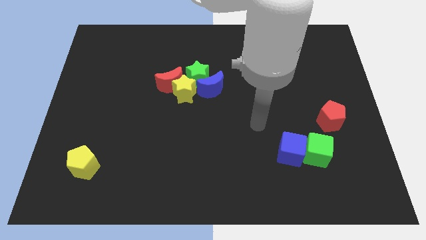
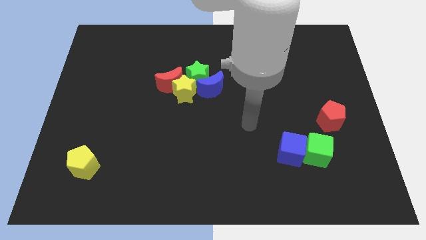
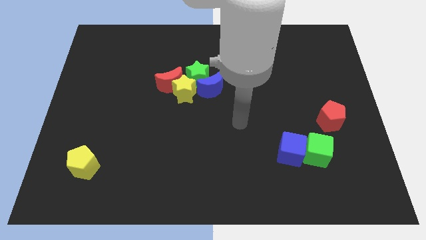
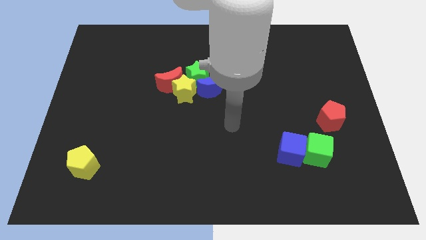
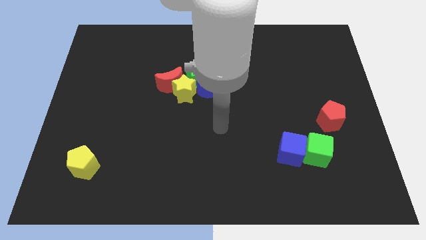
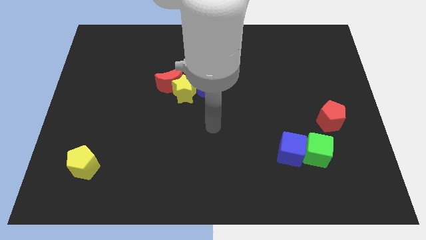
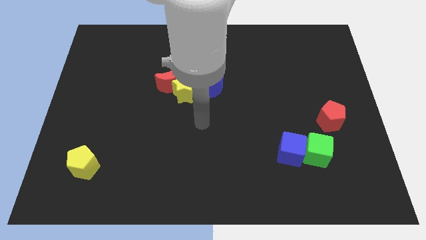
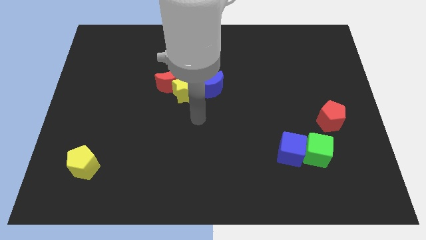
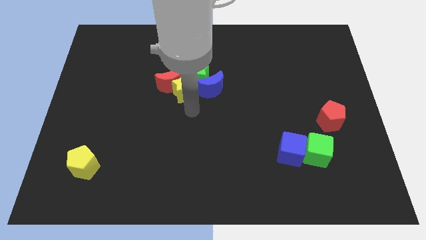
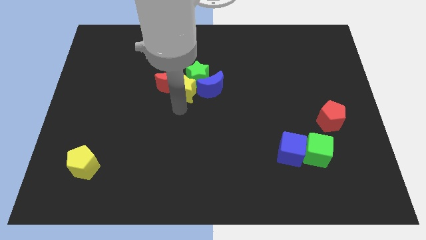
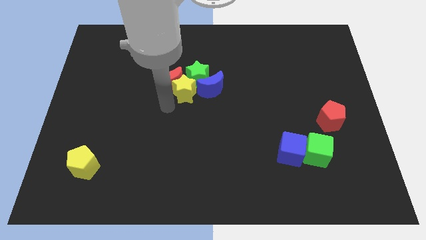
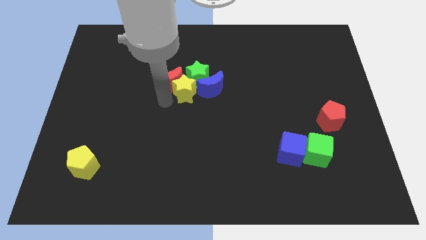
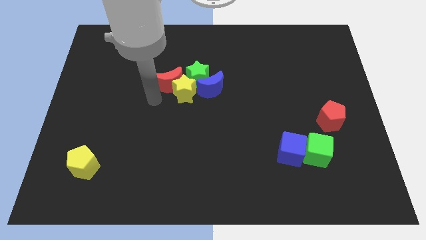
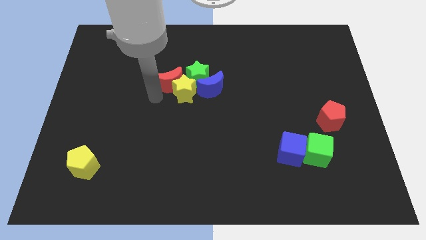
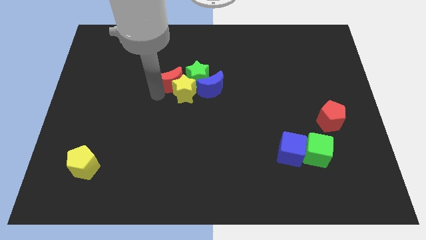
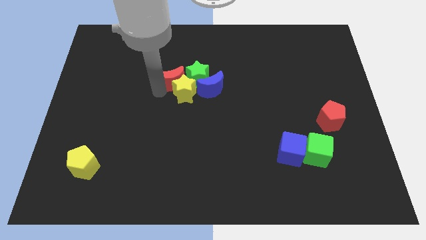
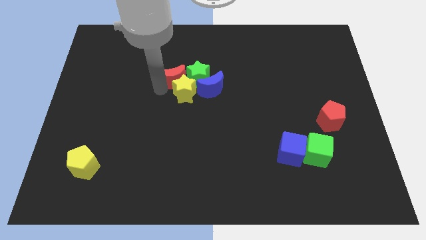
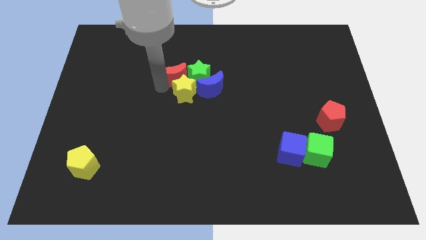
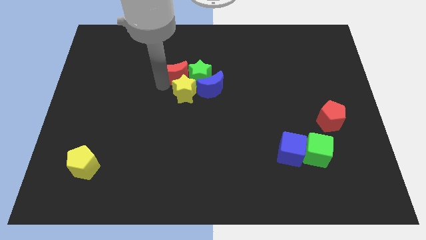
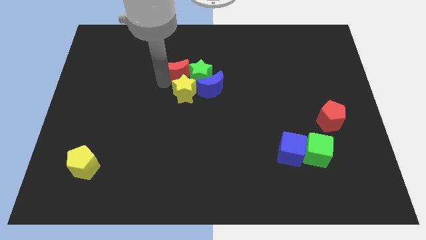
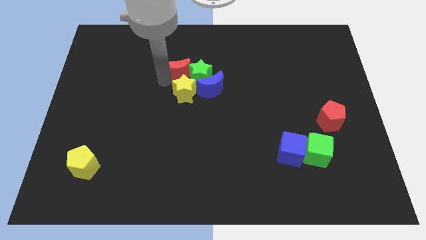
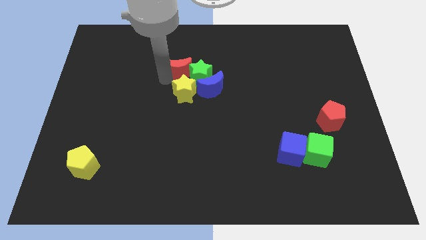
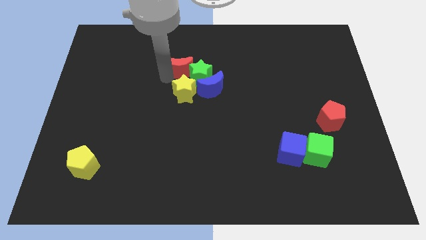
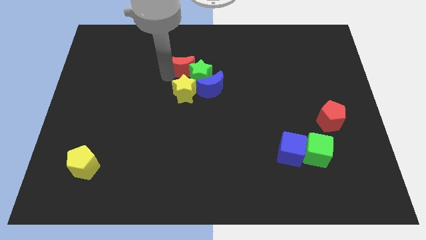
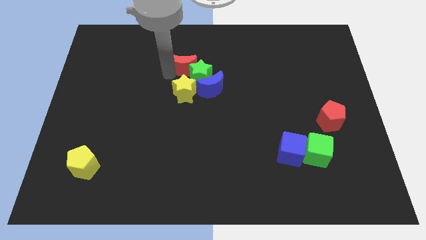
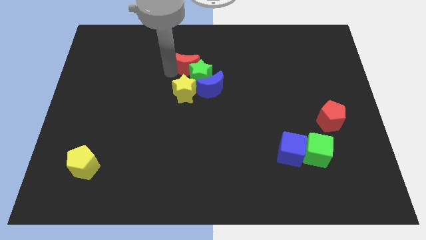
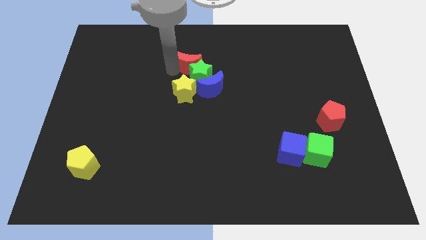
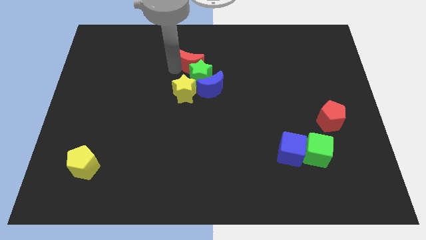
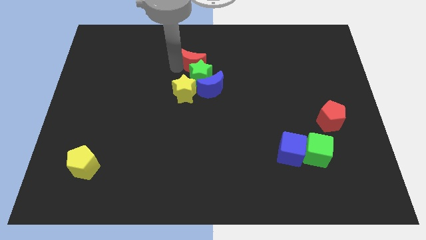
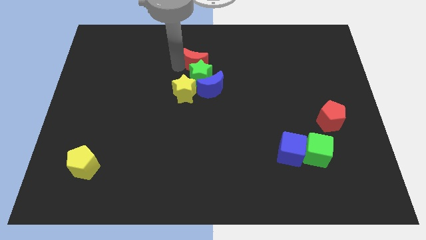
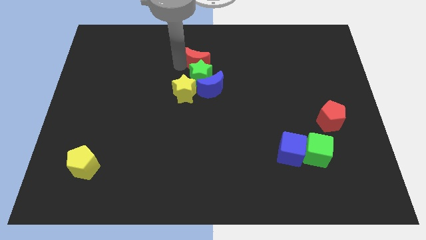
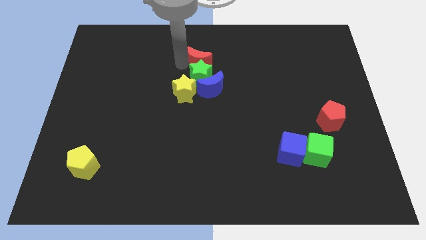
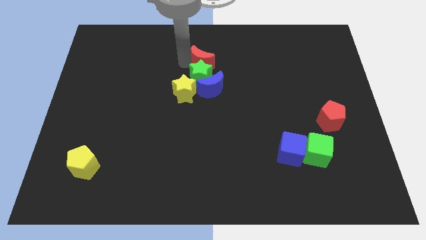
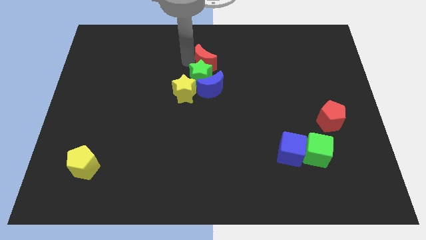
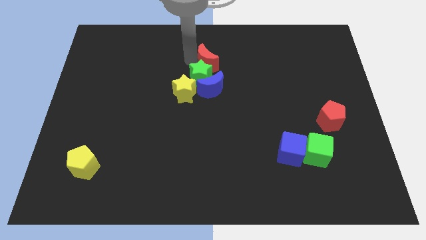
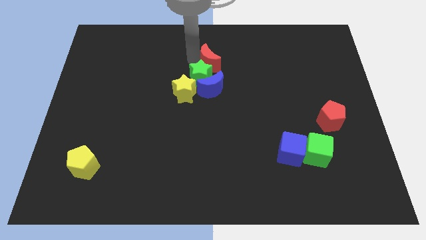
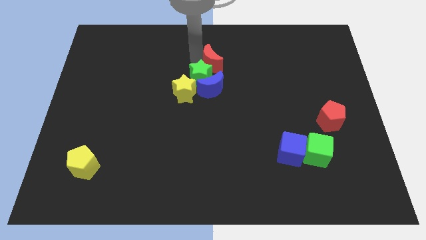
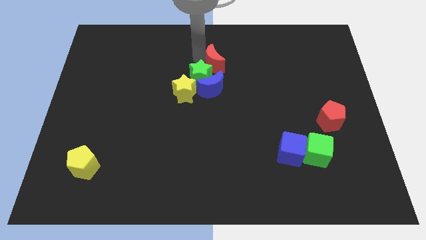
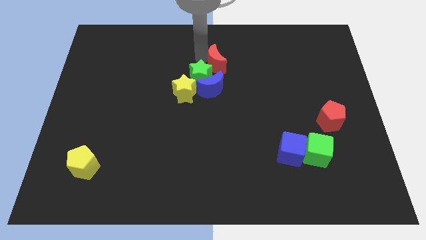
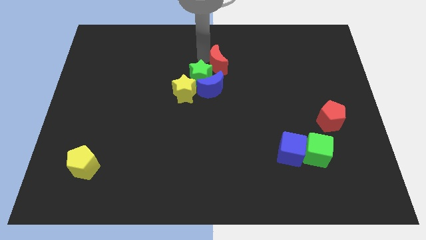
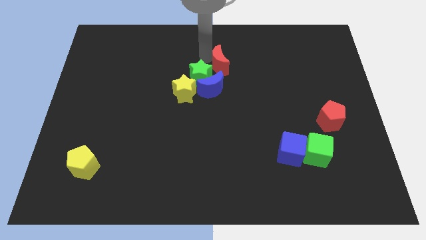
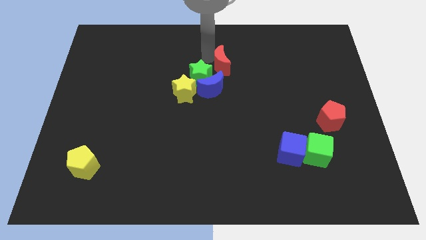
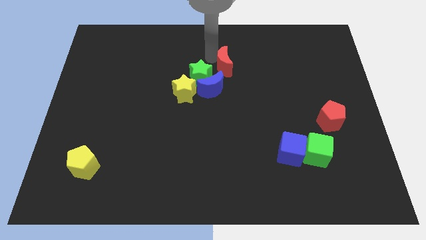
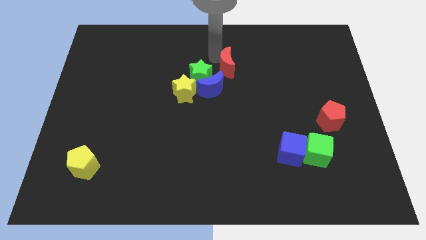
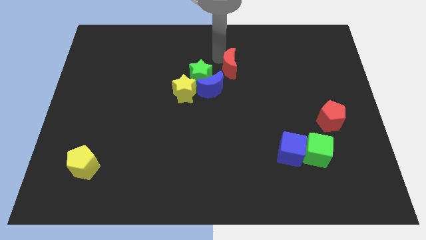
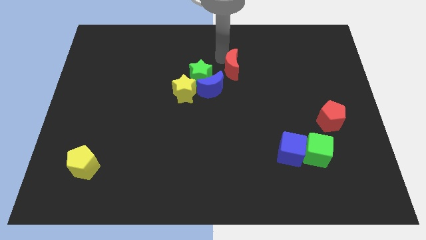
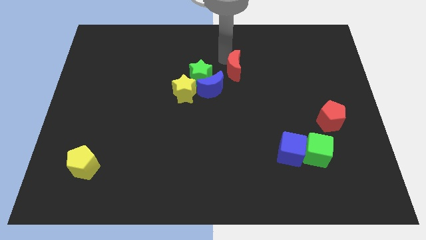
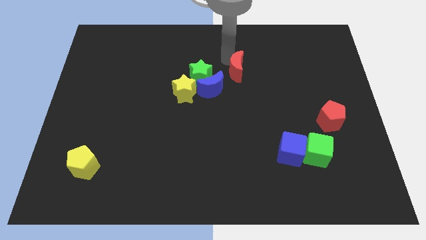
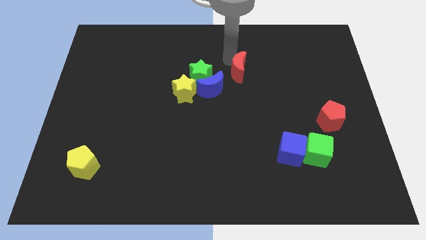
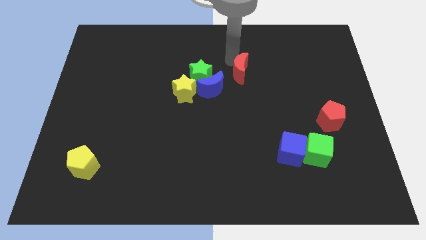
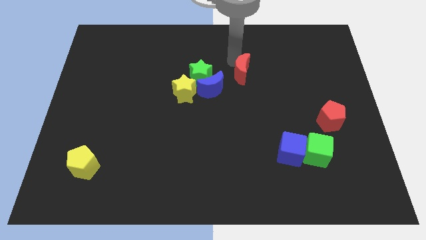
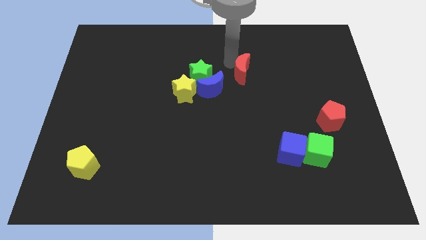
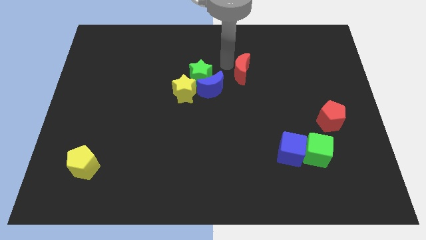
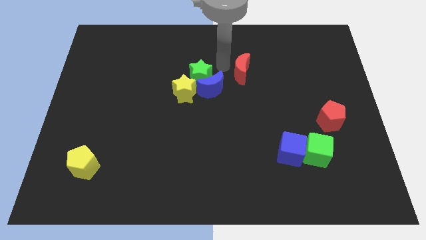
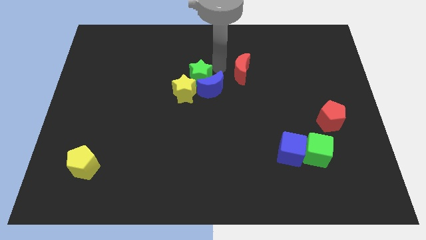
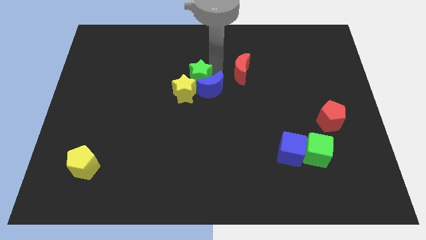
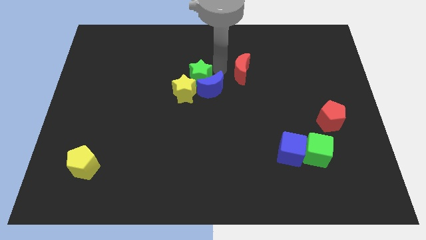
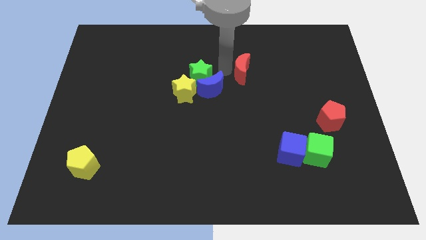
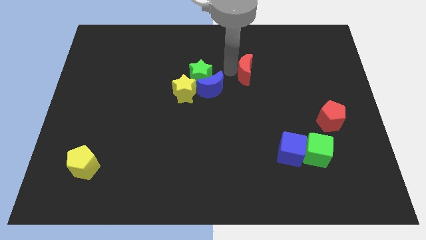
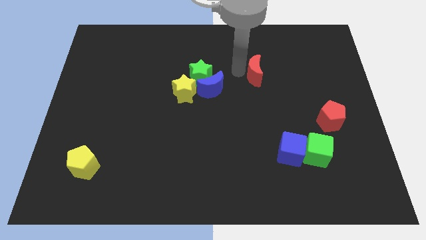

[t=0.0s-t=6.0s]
push the red moon right

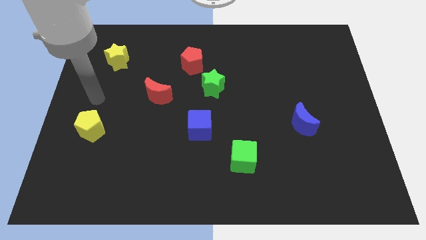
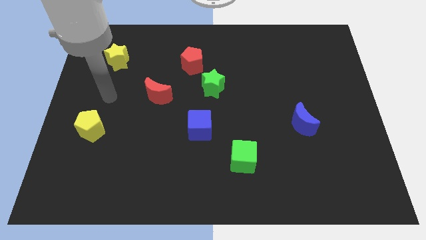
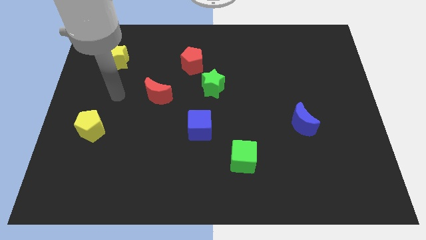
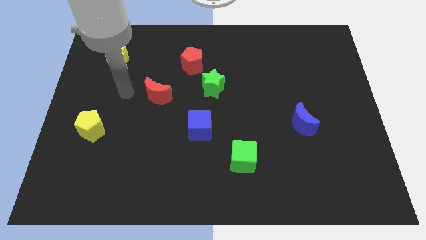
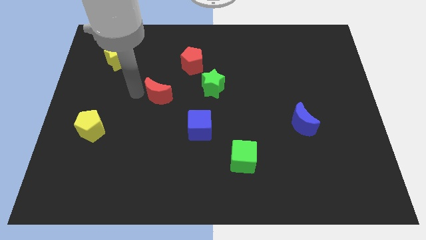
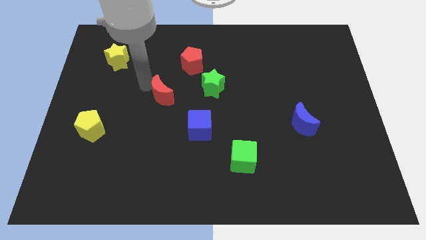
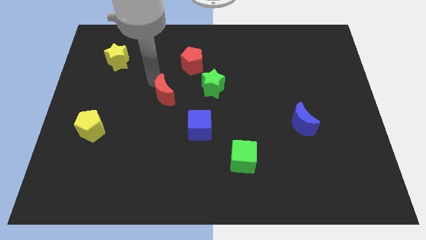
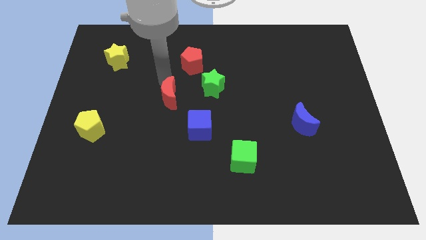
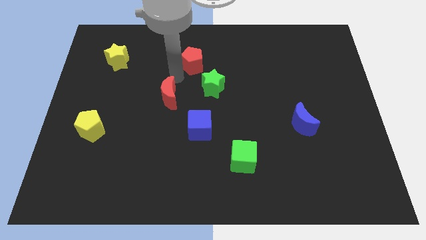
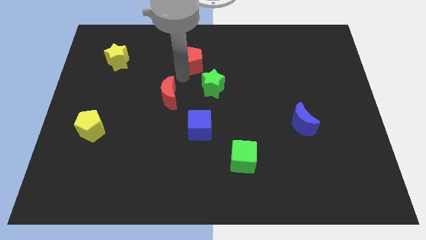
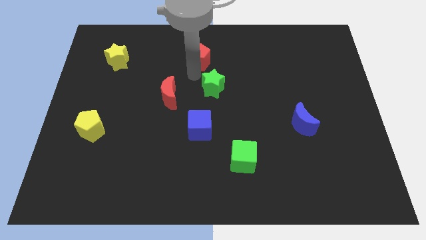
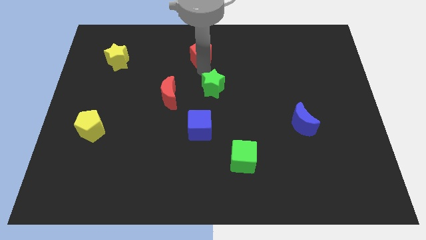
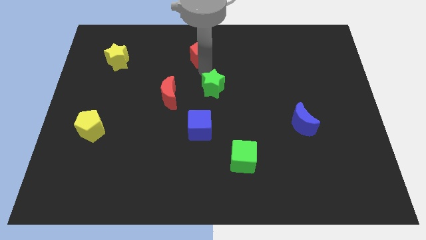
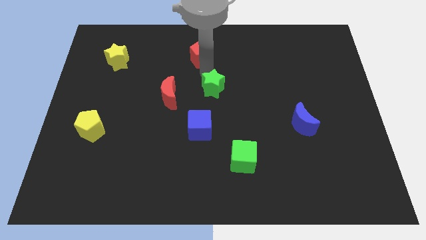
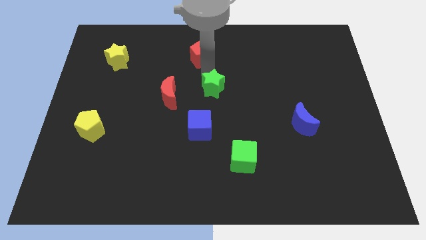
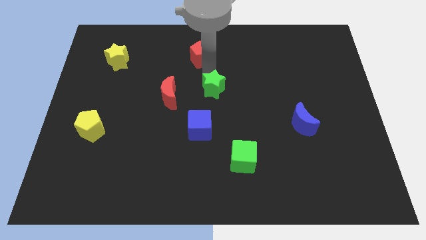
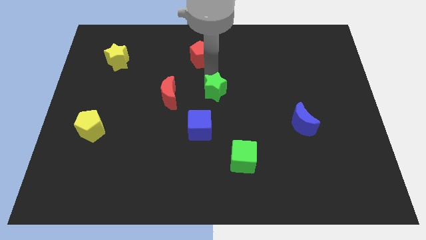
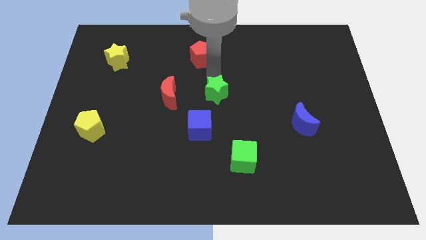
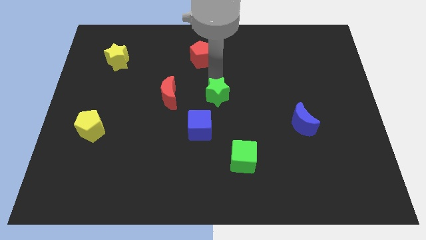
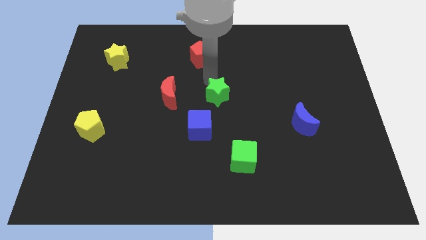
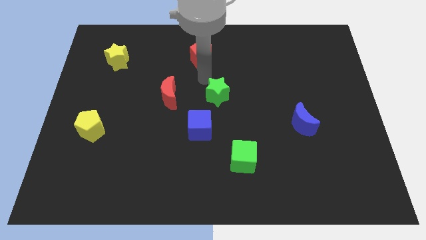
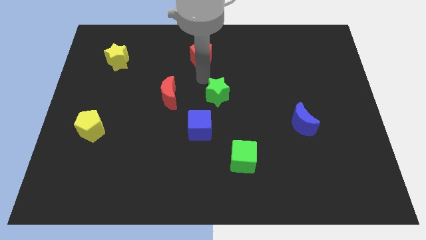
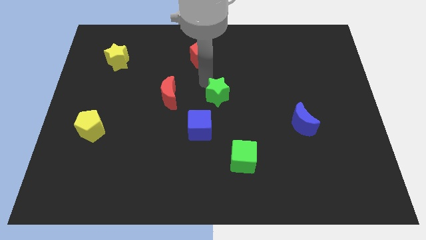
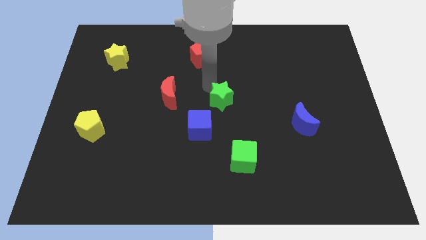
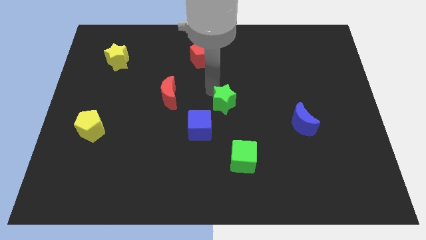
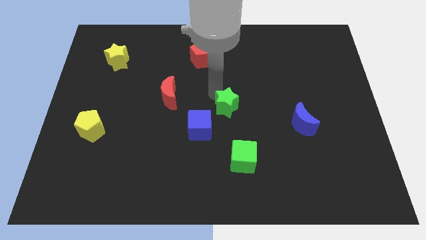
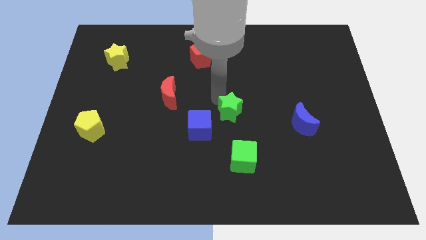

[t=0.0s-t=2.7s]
push the green star down and right diagonally somewhat
